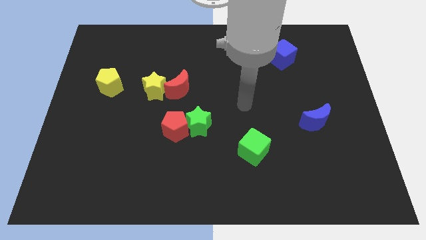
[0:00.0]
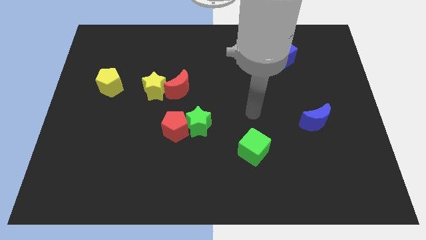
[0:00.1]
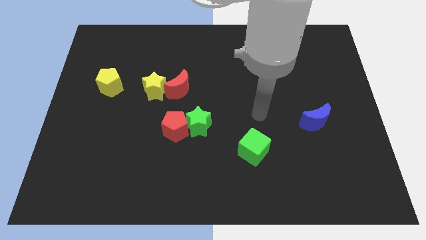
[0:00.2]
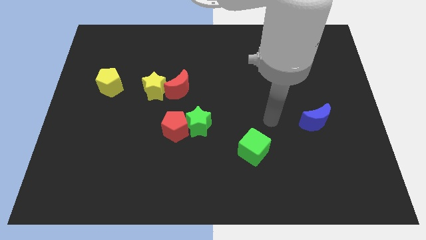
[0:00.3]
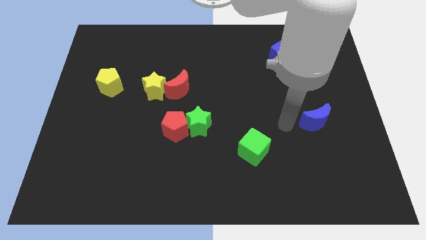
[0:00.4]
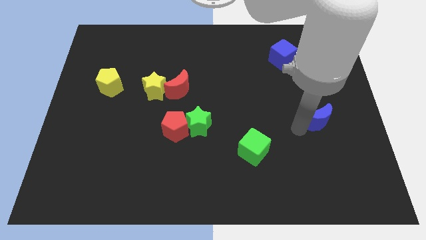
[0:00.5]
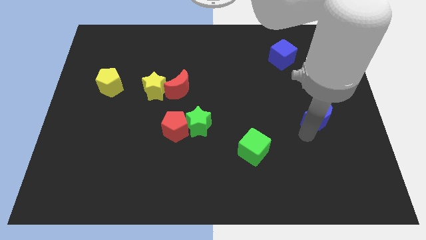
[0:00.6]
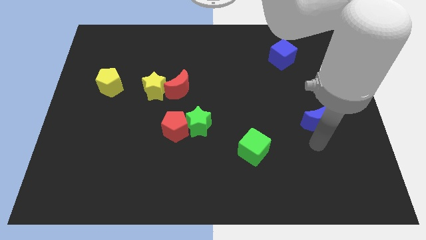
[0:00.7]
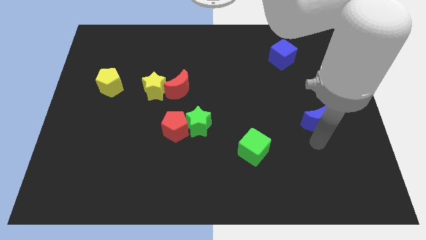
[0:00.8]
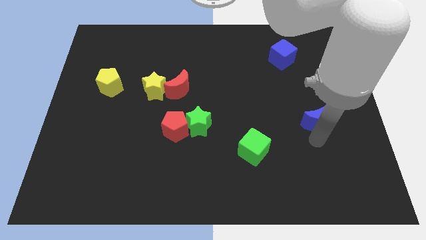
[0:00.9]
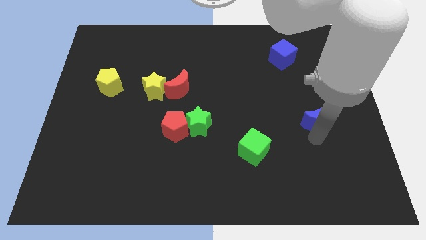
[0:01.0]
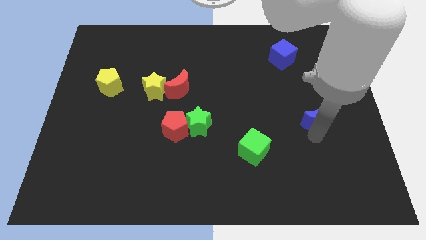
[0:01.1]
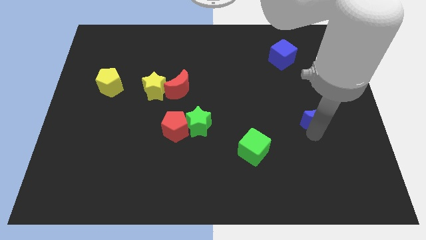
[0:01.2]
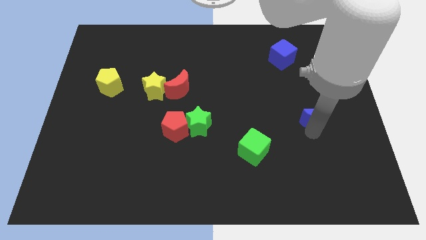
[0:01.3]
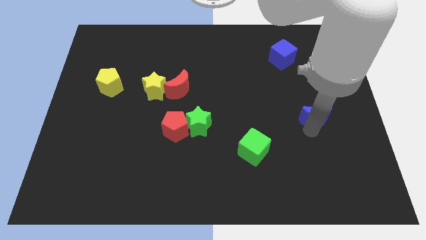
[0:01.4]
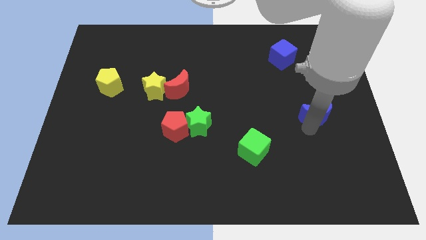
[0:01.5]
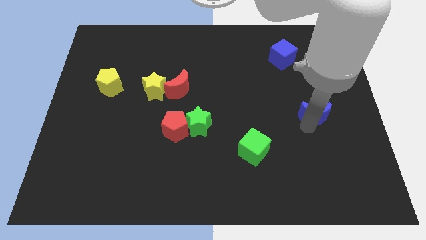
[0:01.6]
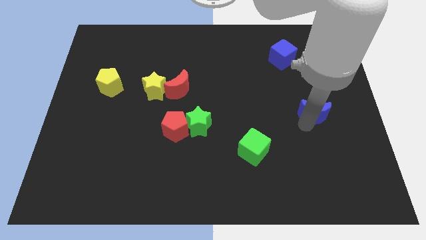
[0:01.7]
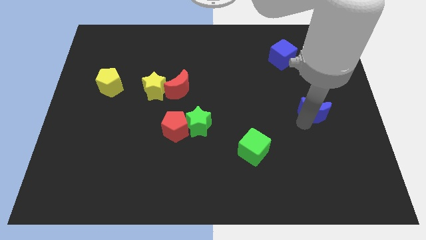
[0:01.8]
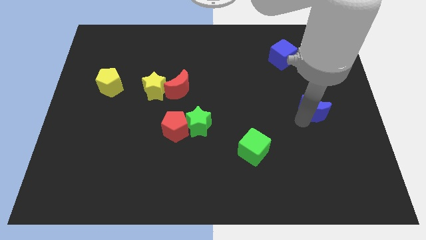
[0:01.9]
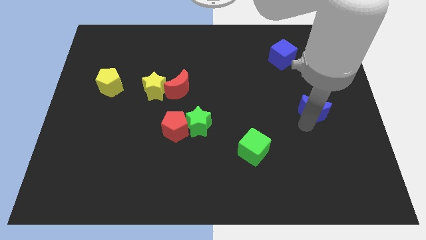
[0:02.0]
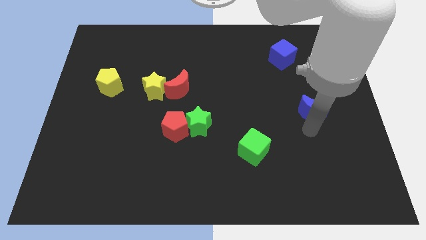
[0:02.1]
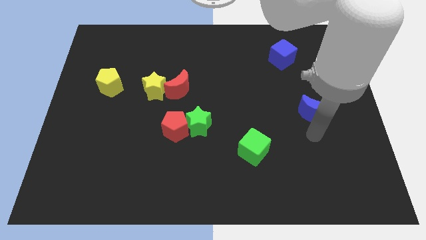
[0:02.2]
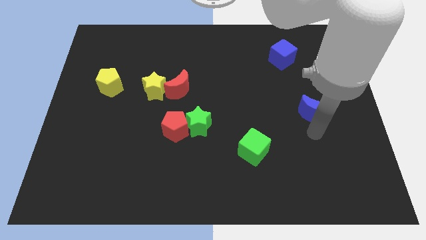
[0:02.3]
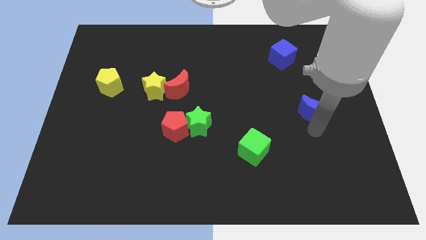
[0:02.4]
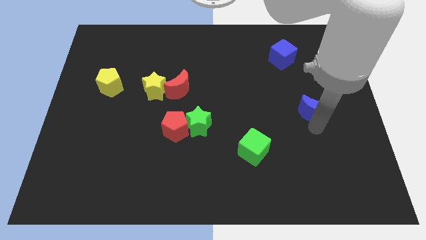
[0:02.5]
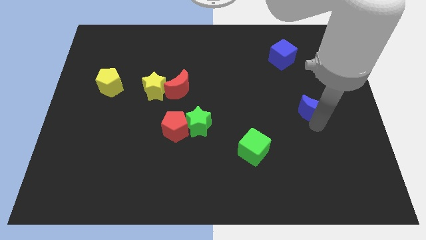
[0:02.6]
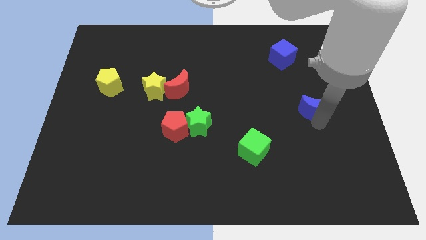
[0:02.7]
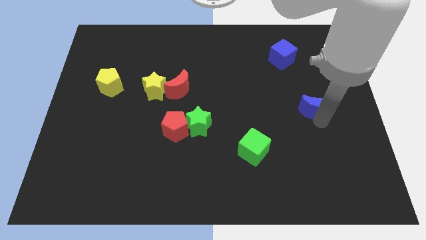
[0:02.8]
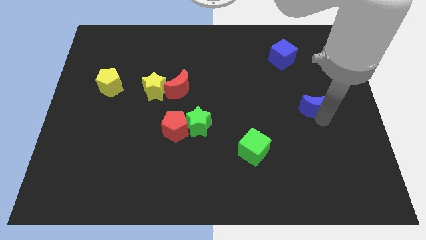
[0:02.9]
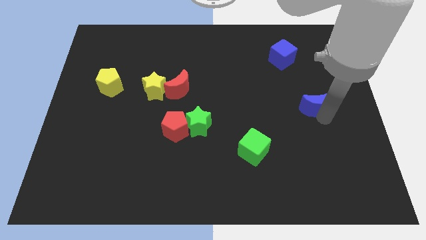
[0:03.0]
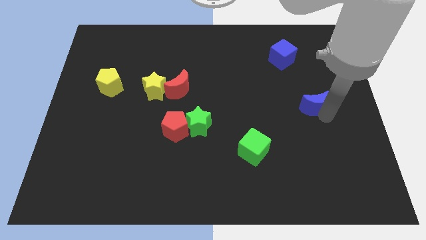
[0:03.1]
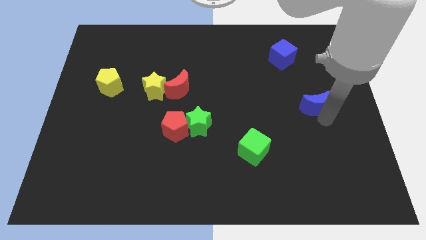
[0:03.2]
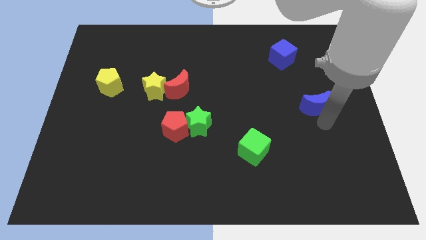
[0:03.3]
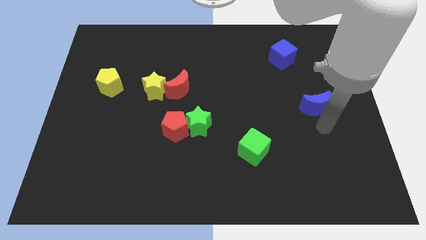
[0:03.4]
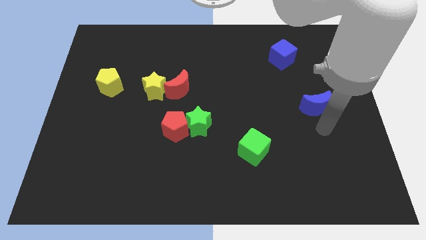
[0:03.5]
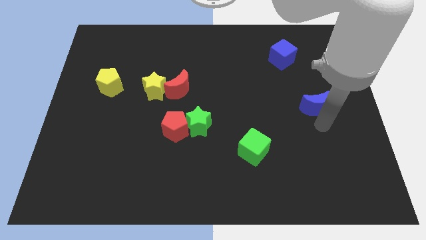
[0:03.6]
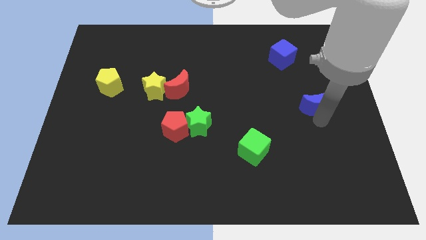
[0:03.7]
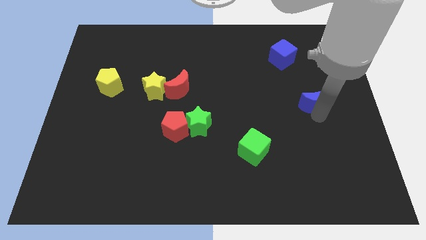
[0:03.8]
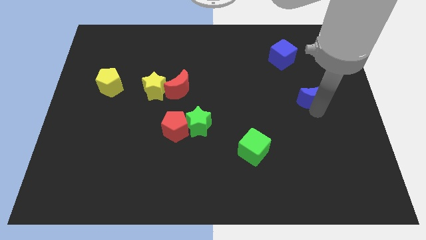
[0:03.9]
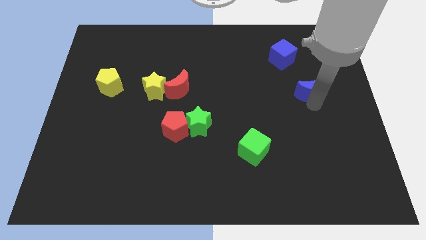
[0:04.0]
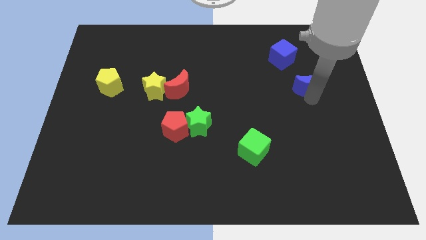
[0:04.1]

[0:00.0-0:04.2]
slide the blue moon diagonally down and to the right of the blue cube

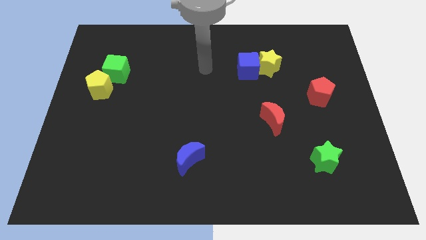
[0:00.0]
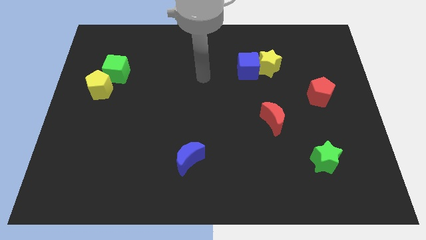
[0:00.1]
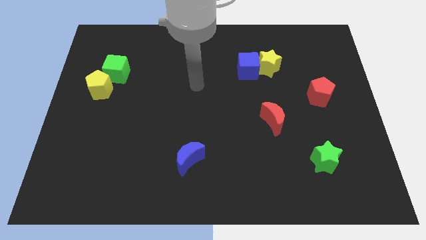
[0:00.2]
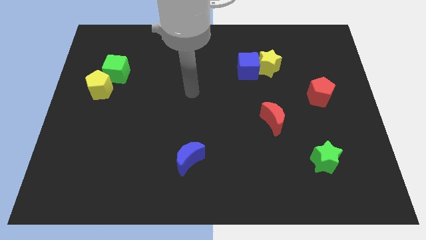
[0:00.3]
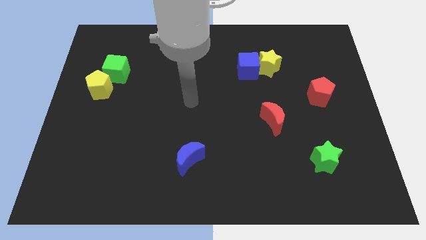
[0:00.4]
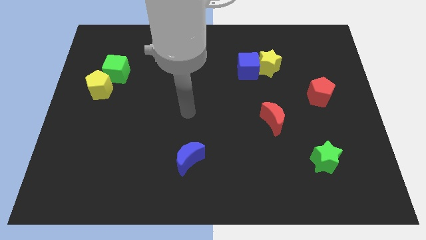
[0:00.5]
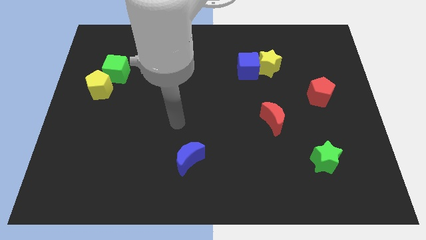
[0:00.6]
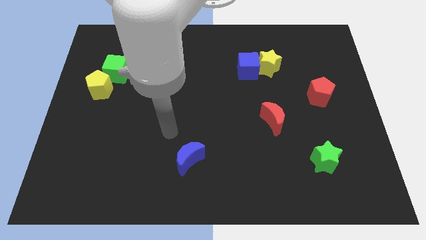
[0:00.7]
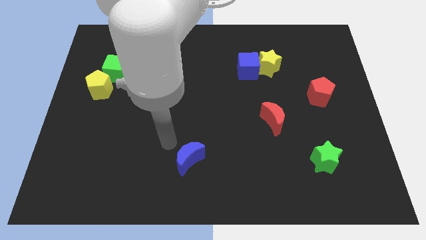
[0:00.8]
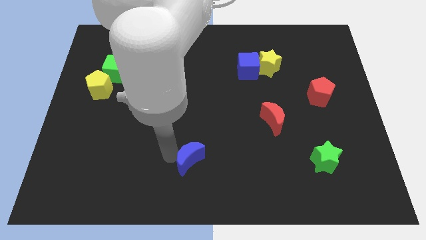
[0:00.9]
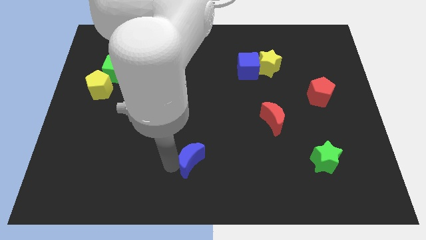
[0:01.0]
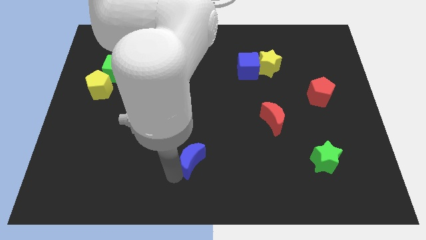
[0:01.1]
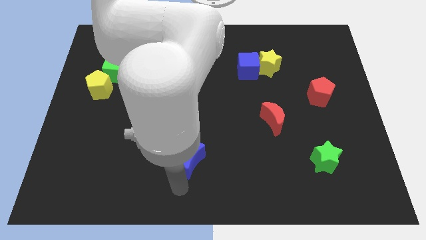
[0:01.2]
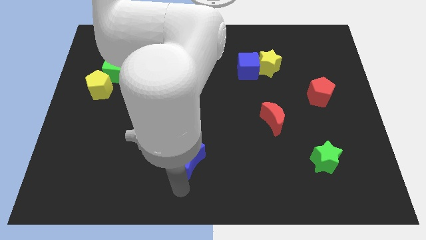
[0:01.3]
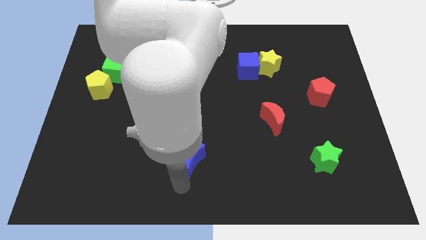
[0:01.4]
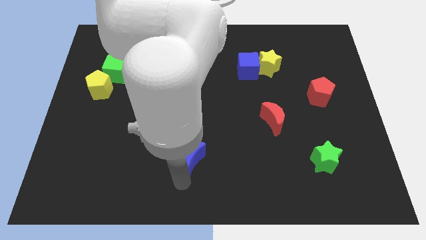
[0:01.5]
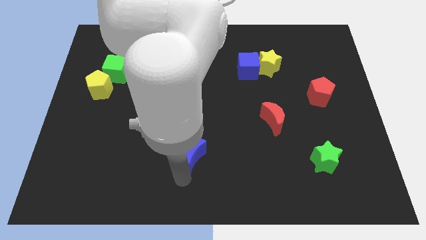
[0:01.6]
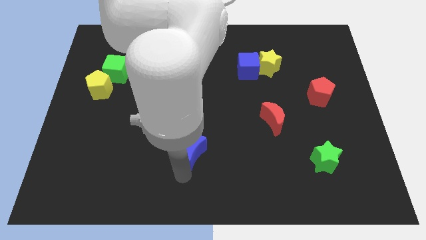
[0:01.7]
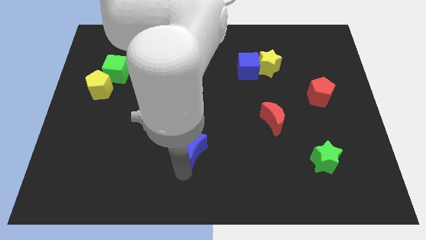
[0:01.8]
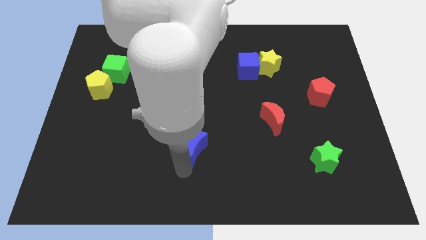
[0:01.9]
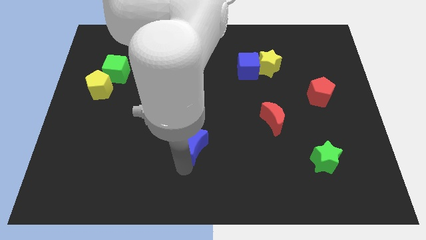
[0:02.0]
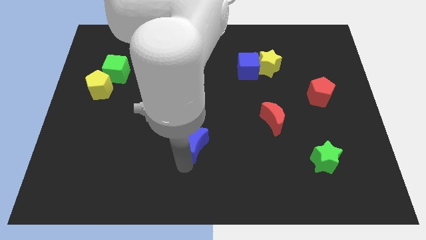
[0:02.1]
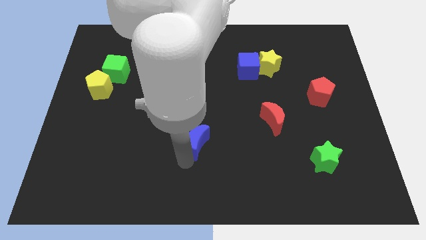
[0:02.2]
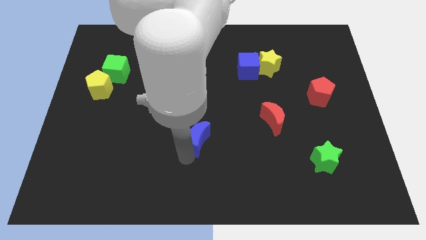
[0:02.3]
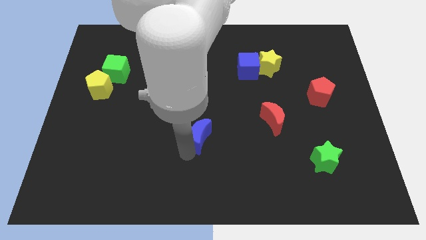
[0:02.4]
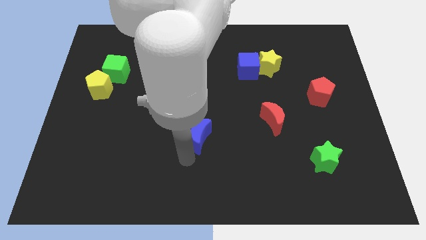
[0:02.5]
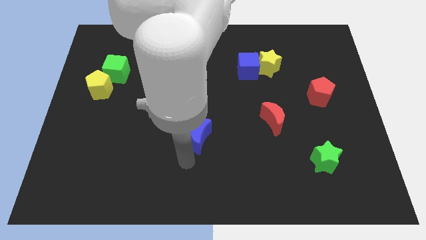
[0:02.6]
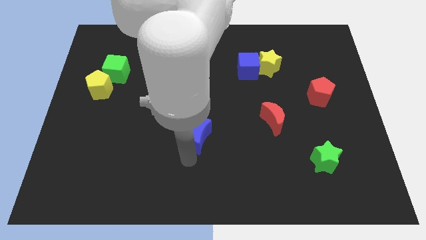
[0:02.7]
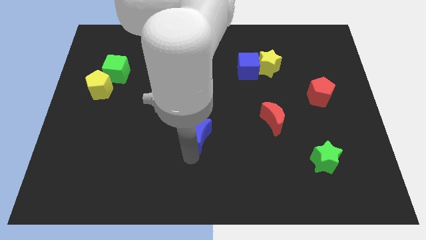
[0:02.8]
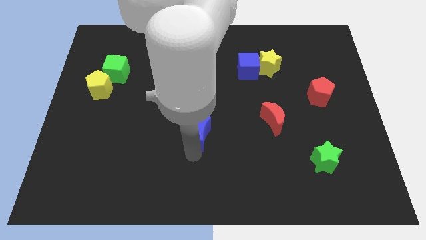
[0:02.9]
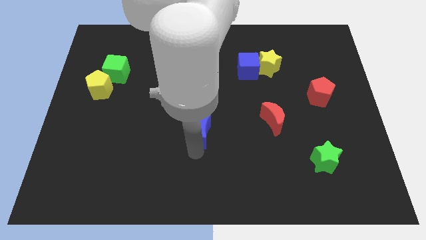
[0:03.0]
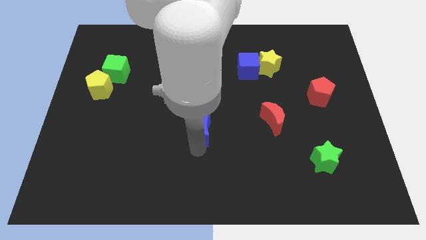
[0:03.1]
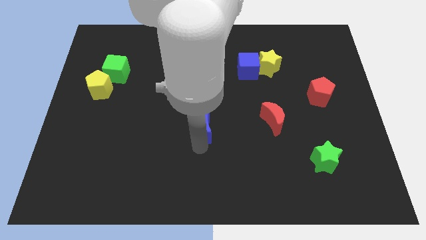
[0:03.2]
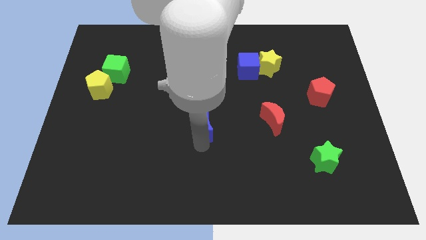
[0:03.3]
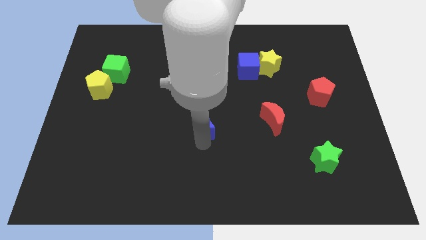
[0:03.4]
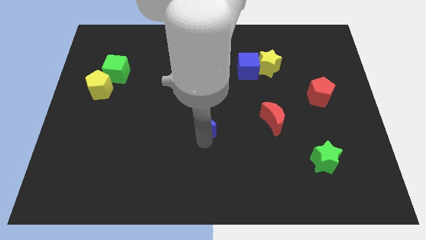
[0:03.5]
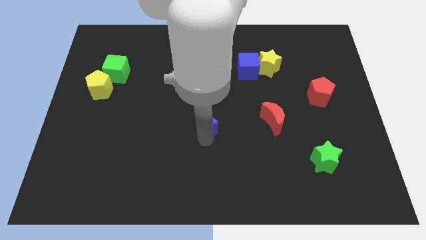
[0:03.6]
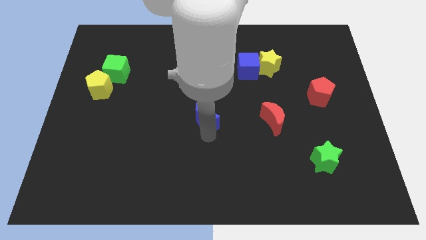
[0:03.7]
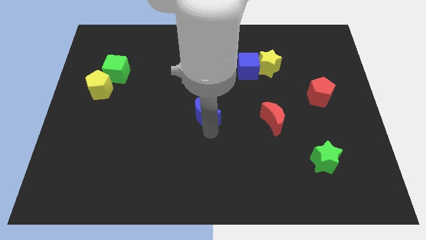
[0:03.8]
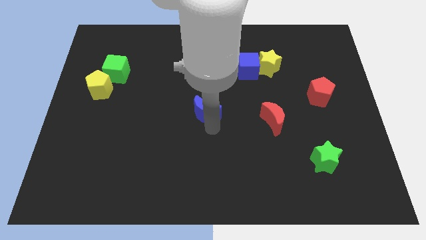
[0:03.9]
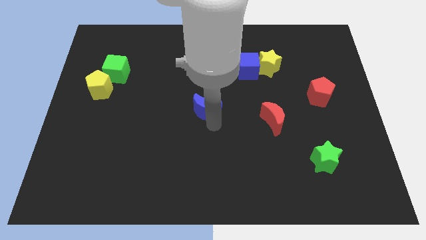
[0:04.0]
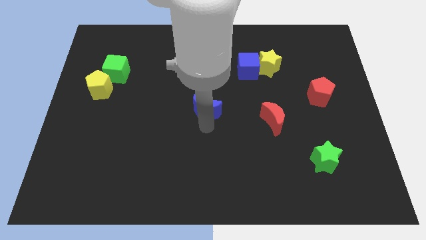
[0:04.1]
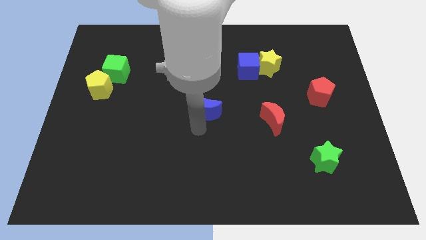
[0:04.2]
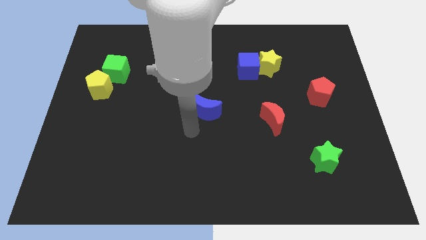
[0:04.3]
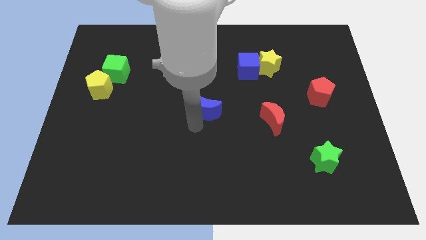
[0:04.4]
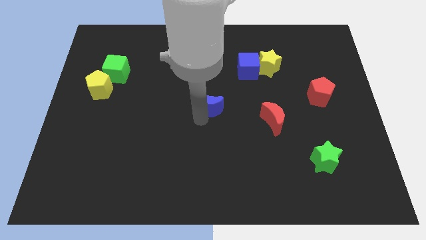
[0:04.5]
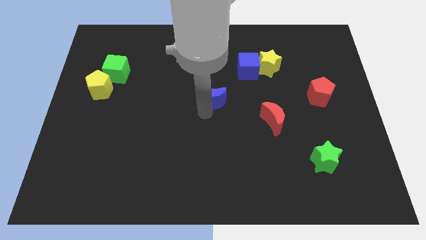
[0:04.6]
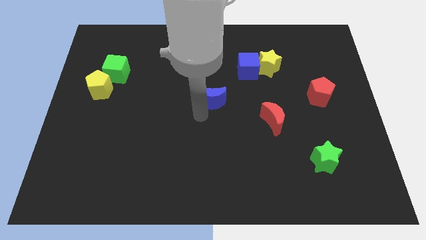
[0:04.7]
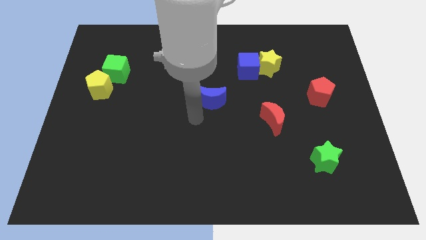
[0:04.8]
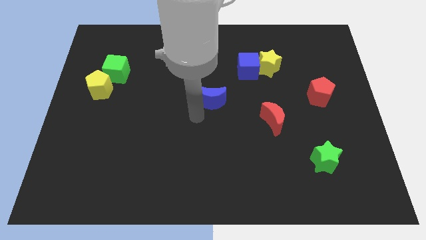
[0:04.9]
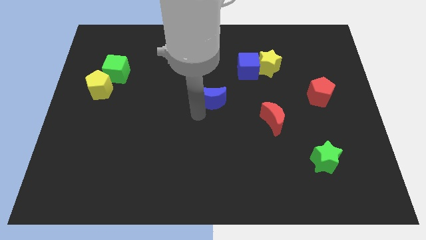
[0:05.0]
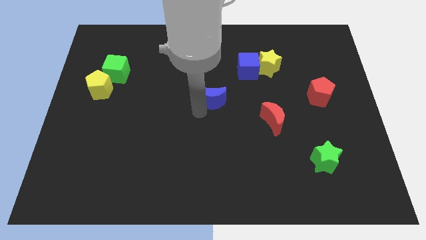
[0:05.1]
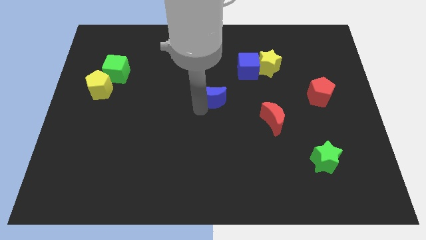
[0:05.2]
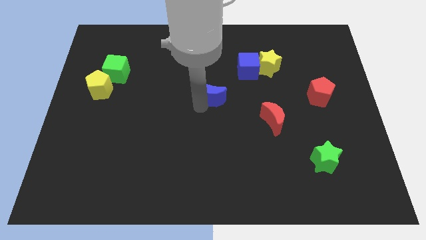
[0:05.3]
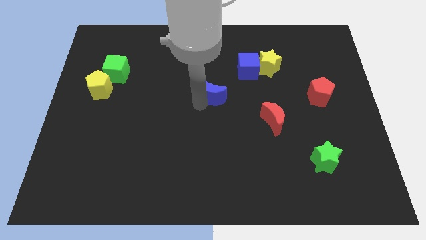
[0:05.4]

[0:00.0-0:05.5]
put the blue moon diagonally down and to the left of the blue cube
